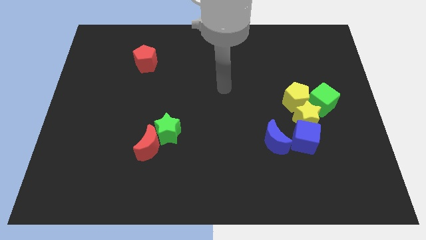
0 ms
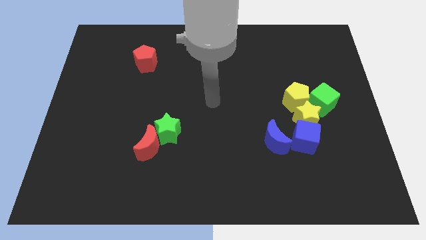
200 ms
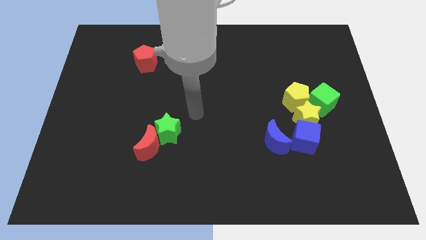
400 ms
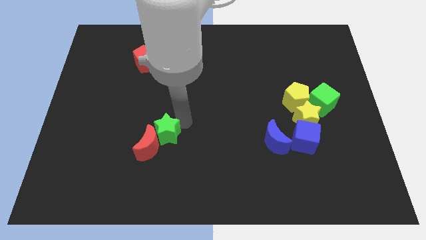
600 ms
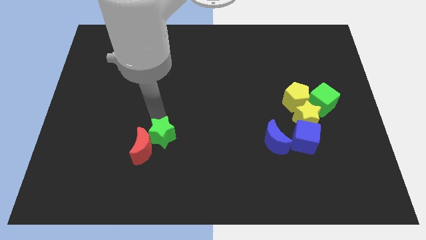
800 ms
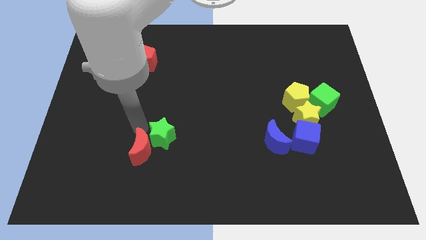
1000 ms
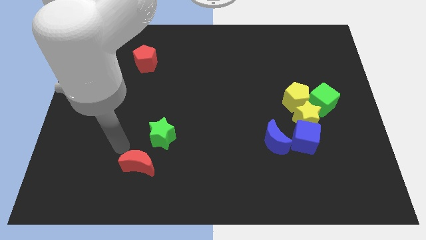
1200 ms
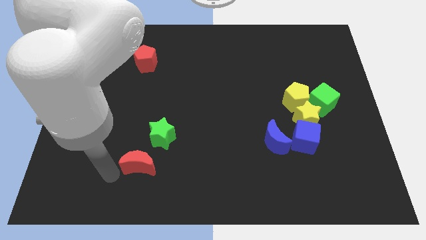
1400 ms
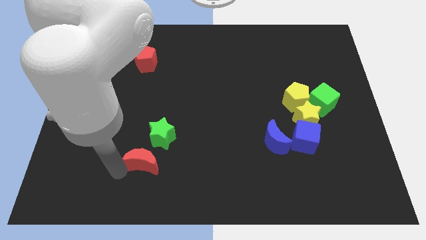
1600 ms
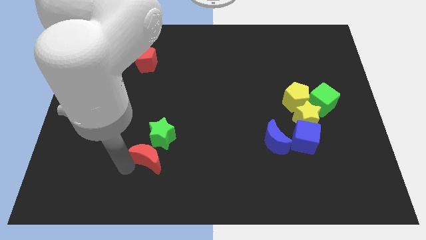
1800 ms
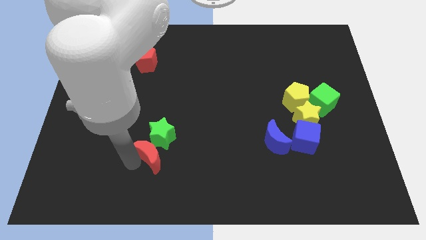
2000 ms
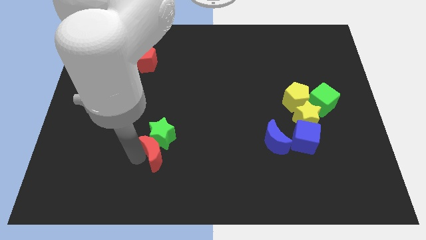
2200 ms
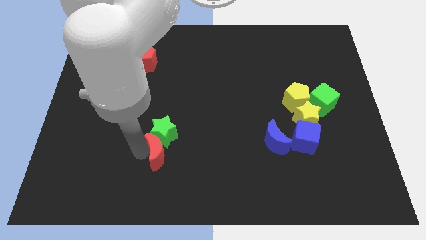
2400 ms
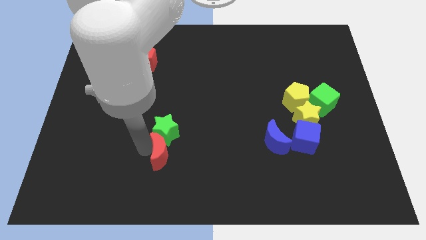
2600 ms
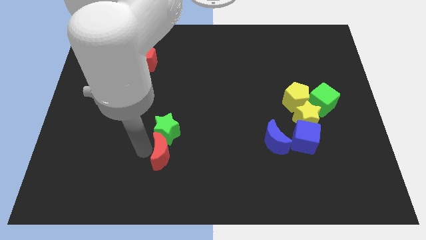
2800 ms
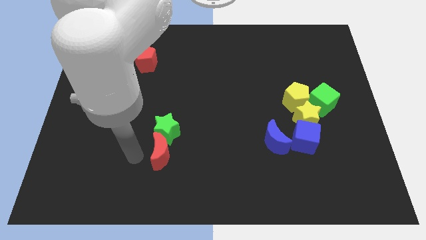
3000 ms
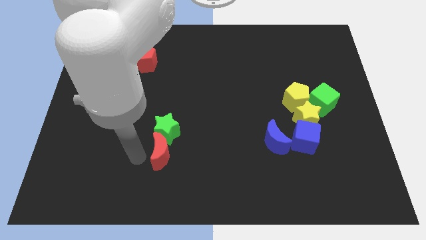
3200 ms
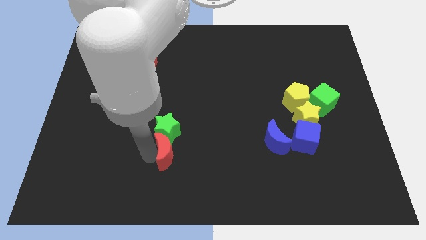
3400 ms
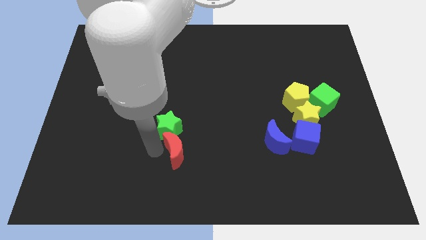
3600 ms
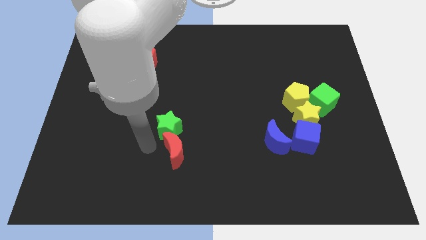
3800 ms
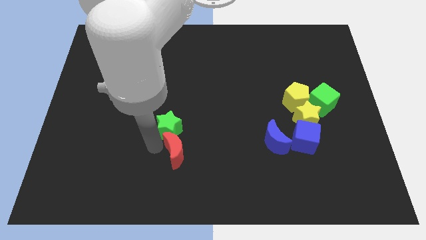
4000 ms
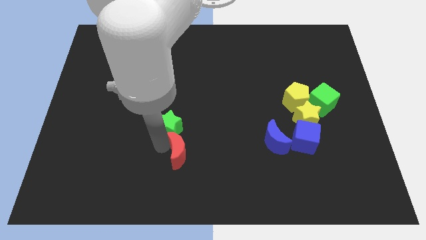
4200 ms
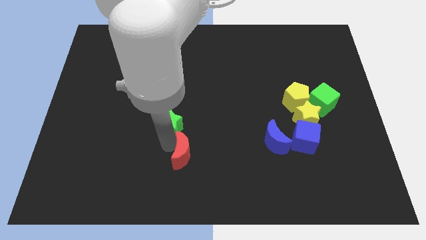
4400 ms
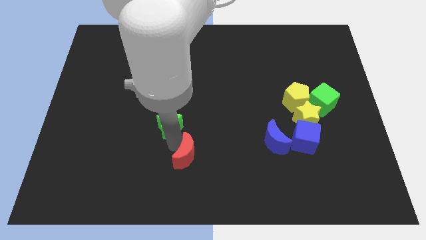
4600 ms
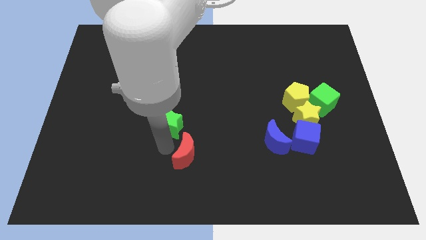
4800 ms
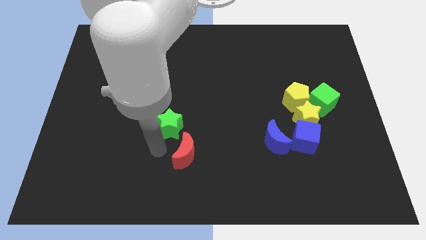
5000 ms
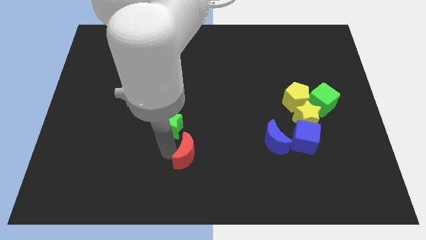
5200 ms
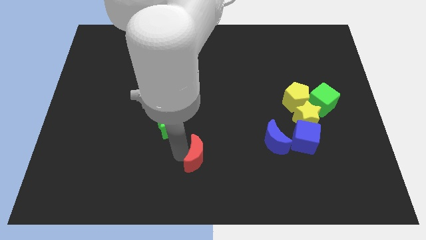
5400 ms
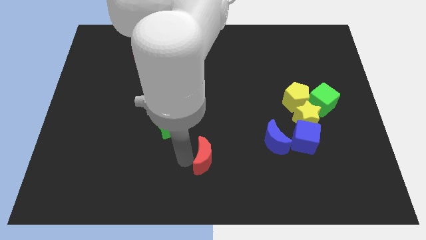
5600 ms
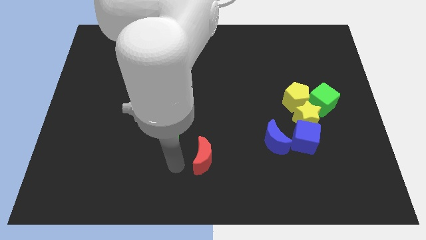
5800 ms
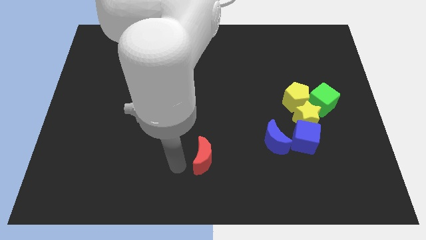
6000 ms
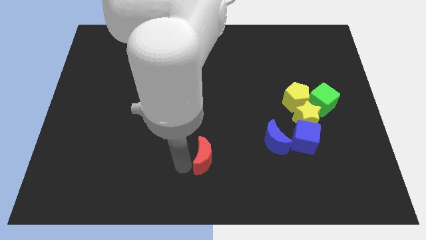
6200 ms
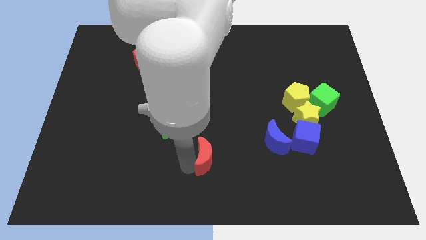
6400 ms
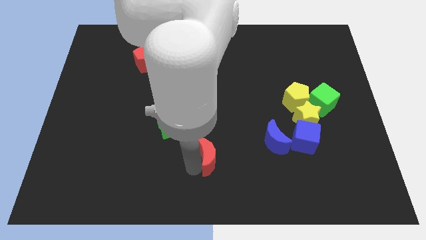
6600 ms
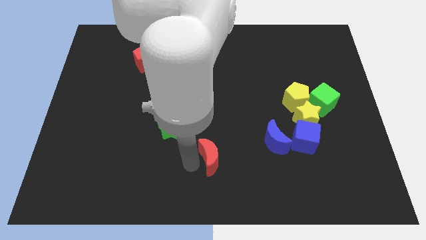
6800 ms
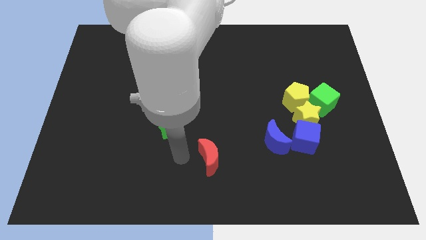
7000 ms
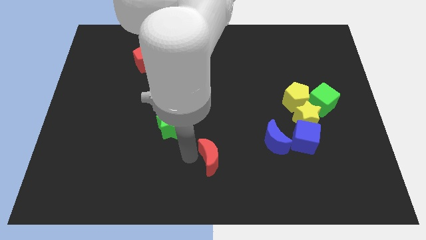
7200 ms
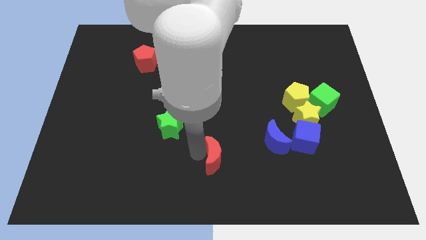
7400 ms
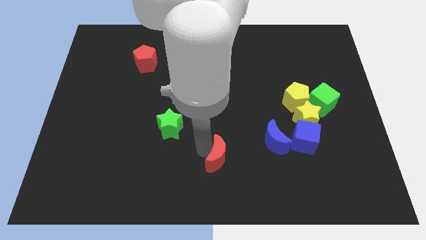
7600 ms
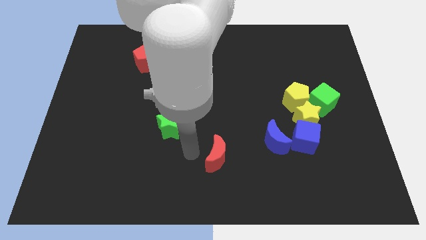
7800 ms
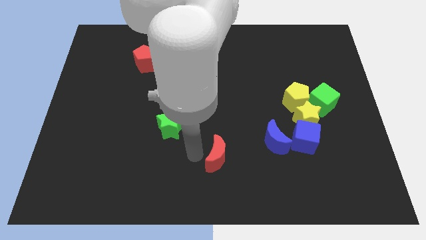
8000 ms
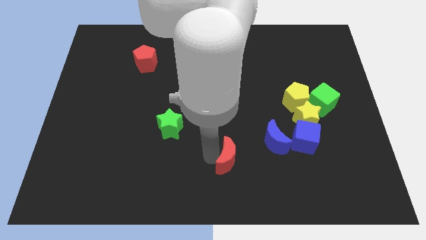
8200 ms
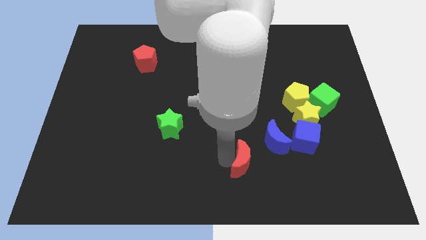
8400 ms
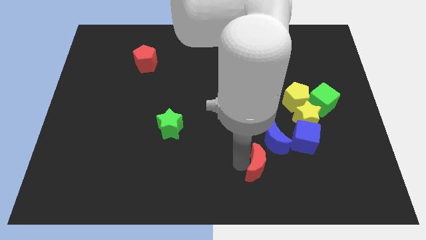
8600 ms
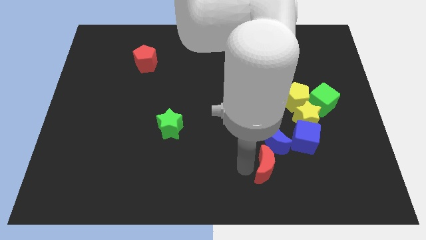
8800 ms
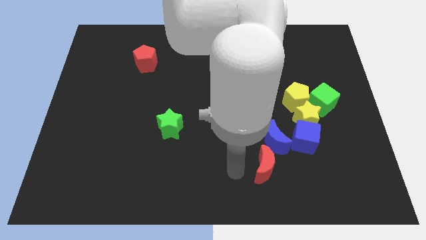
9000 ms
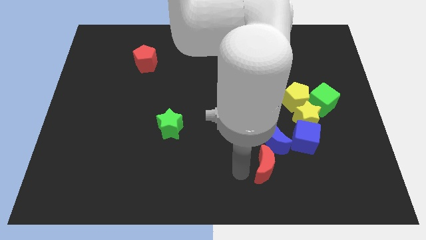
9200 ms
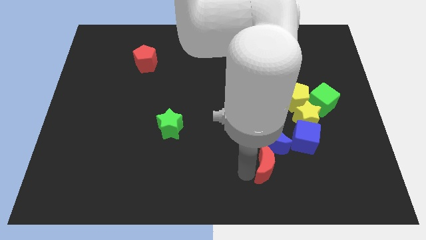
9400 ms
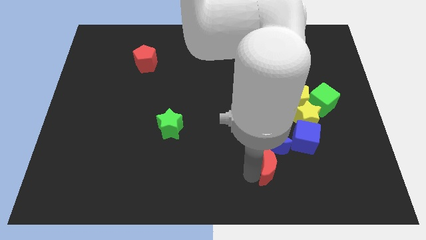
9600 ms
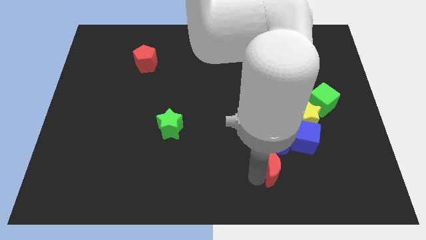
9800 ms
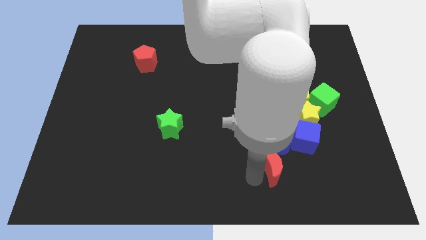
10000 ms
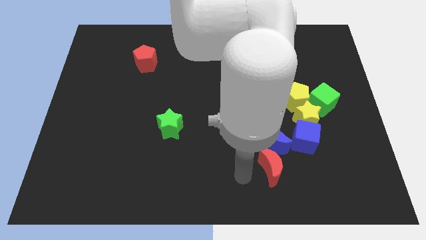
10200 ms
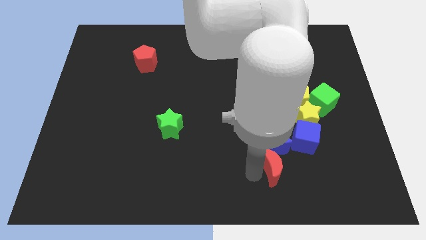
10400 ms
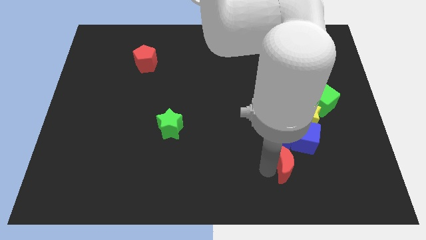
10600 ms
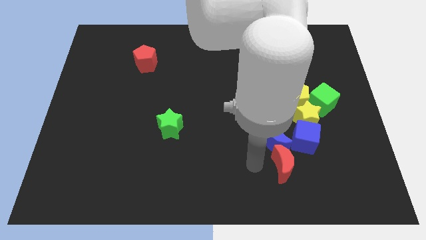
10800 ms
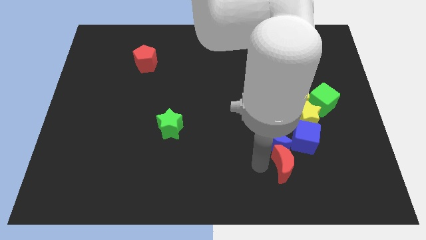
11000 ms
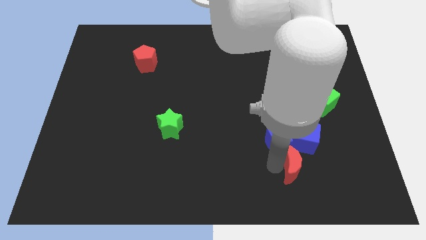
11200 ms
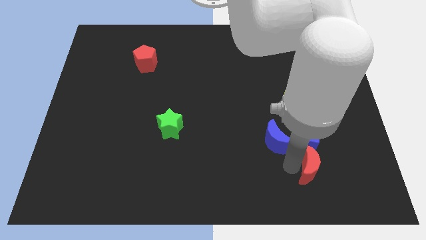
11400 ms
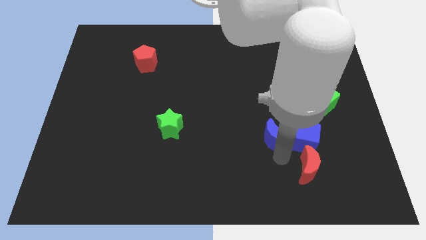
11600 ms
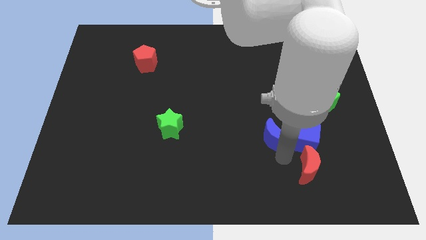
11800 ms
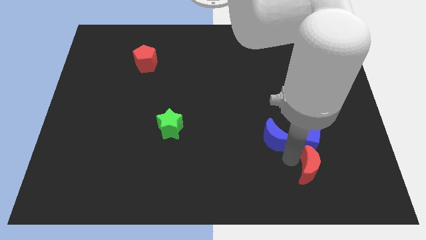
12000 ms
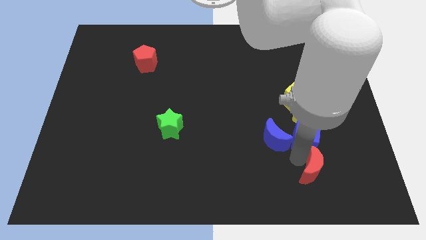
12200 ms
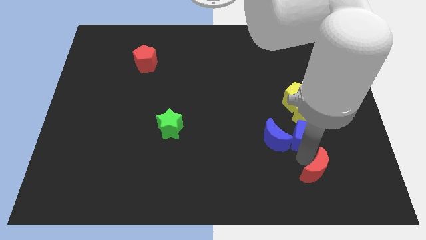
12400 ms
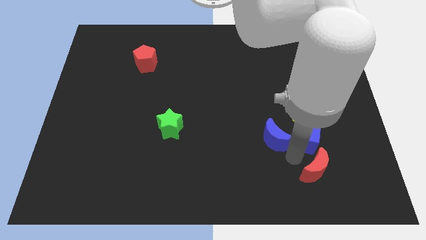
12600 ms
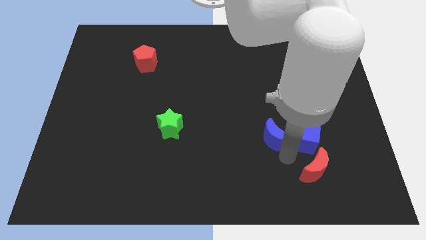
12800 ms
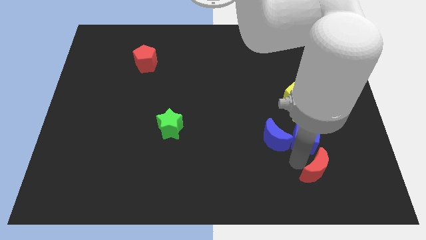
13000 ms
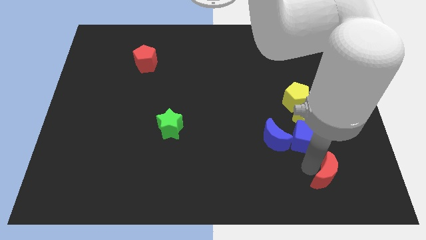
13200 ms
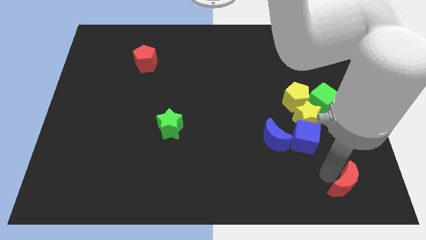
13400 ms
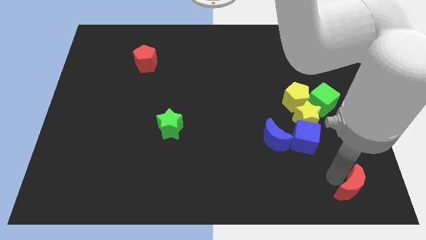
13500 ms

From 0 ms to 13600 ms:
put the red moon to the lower right corner
